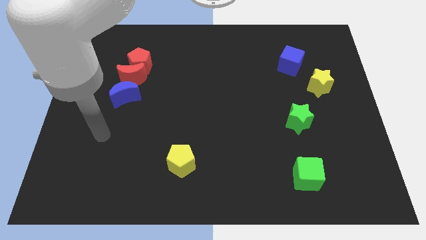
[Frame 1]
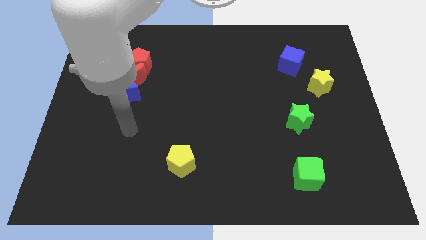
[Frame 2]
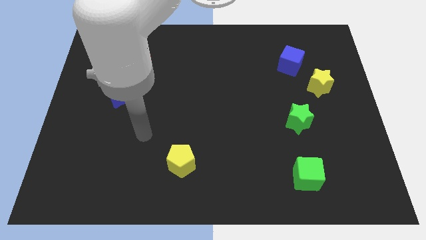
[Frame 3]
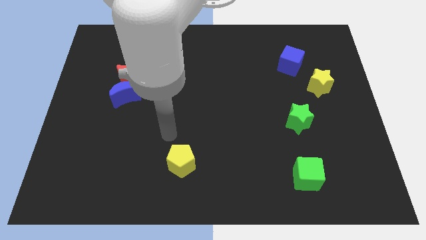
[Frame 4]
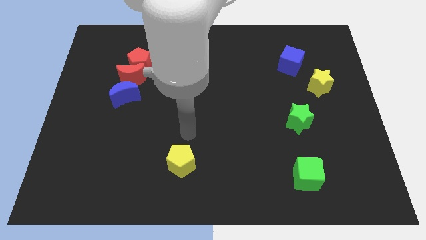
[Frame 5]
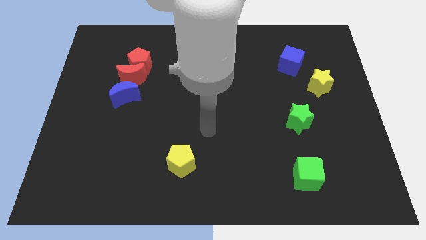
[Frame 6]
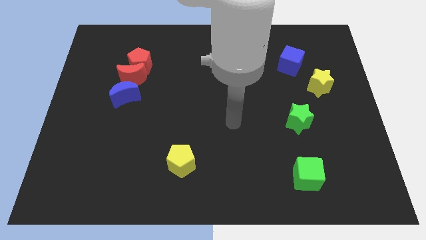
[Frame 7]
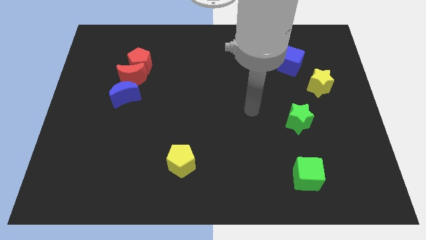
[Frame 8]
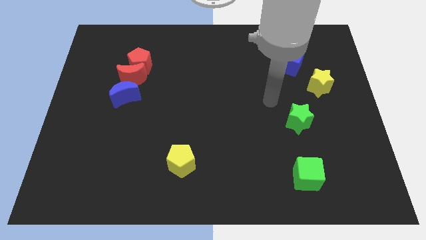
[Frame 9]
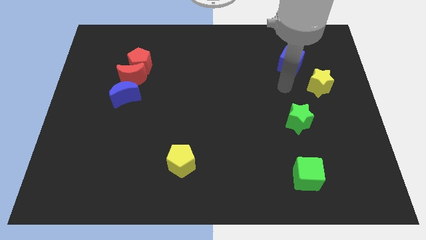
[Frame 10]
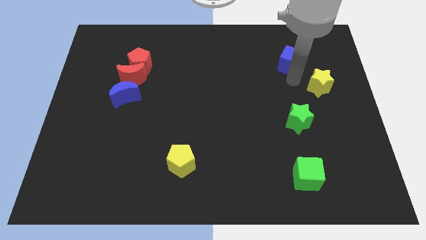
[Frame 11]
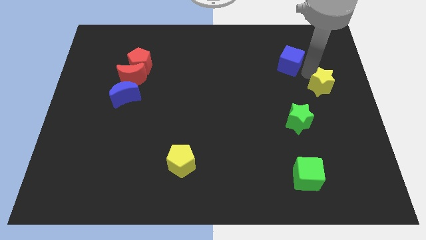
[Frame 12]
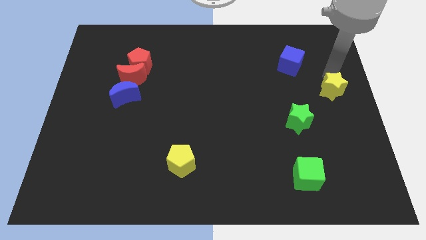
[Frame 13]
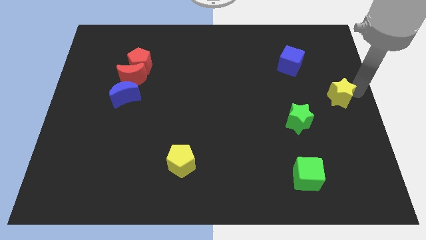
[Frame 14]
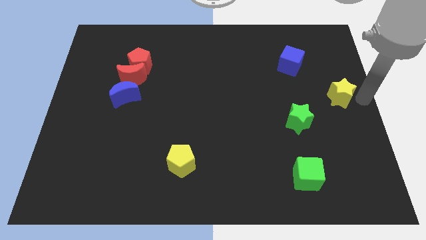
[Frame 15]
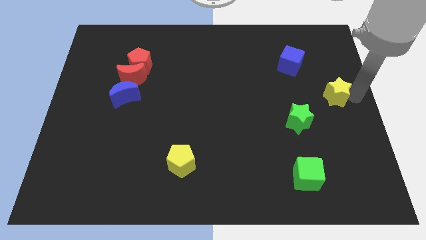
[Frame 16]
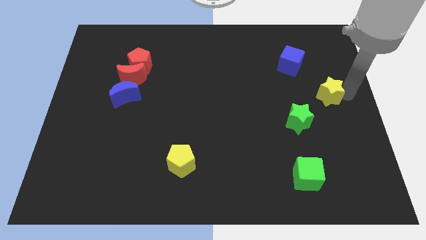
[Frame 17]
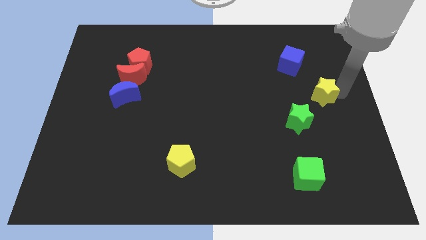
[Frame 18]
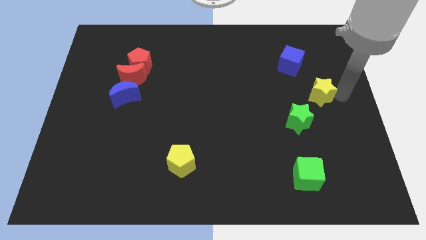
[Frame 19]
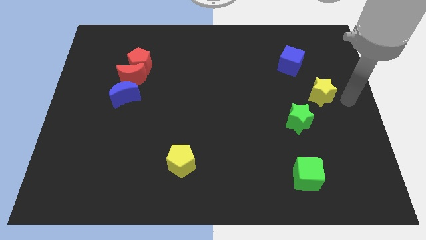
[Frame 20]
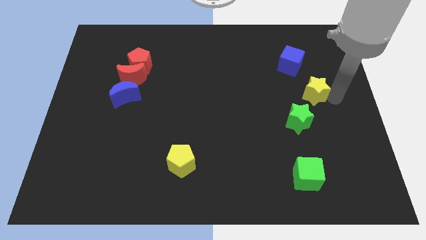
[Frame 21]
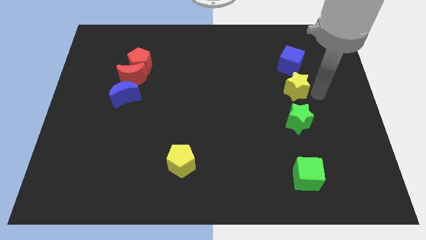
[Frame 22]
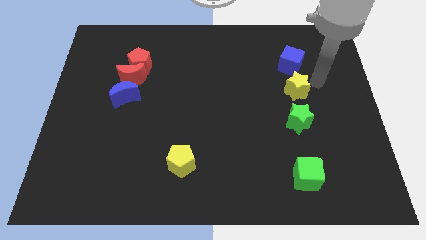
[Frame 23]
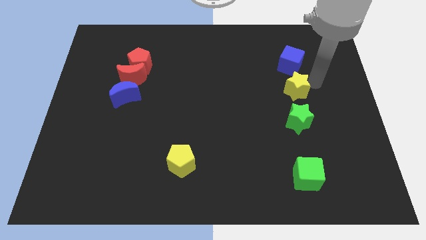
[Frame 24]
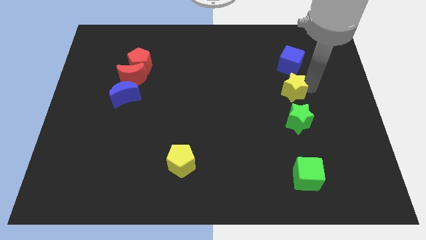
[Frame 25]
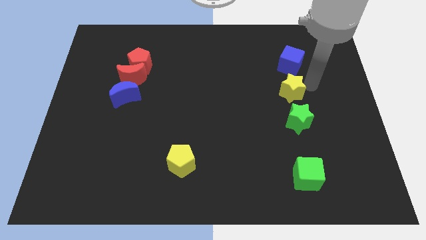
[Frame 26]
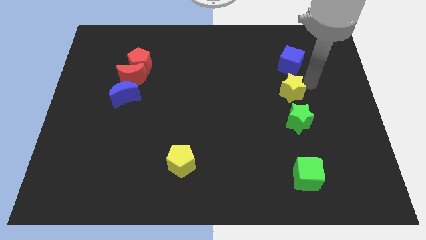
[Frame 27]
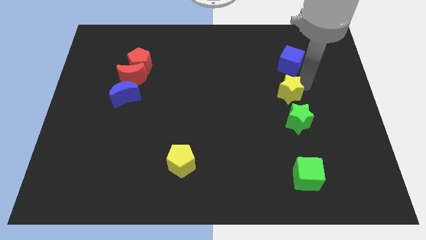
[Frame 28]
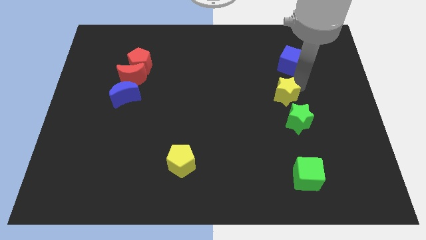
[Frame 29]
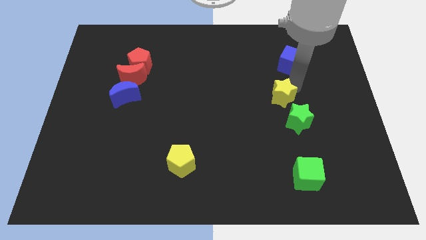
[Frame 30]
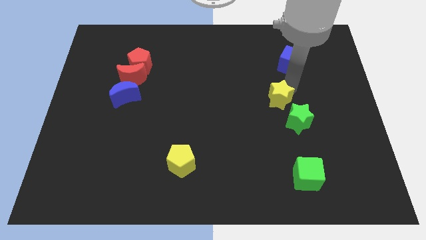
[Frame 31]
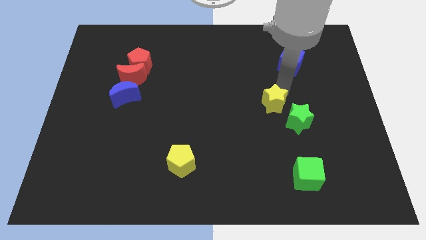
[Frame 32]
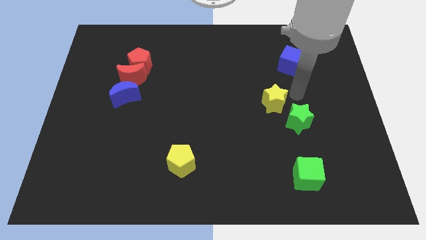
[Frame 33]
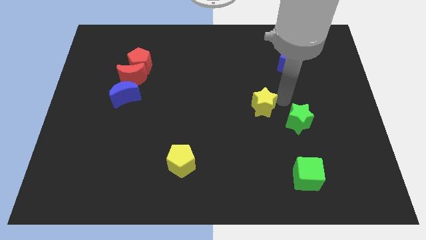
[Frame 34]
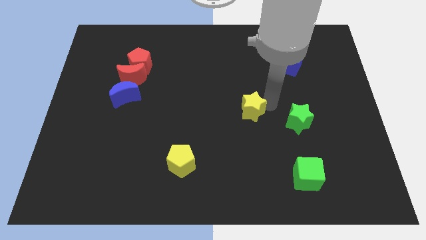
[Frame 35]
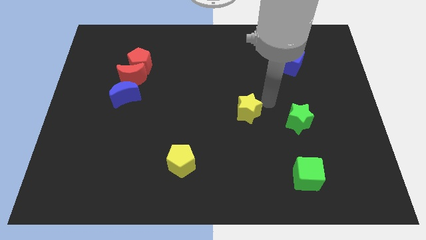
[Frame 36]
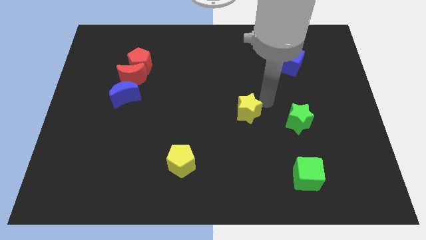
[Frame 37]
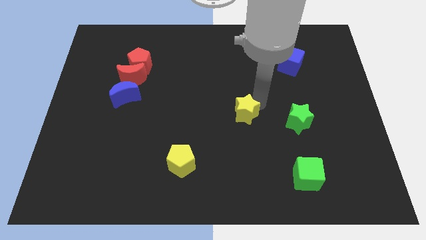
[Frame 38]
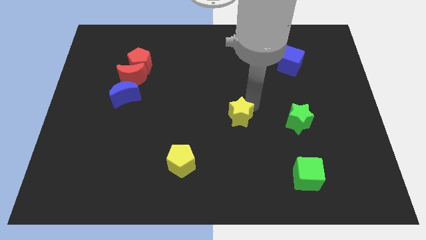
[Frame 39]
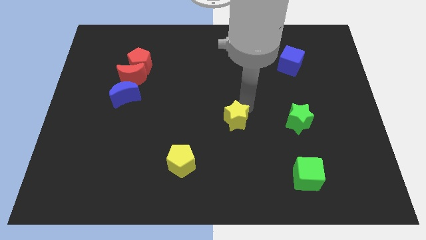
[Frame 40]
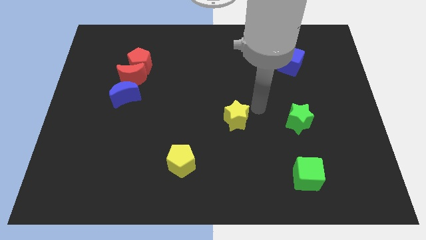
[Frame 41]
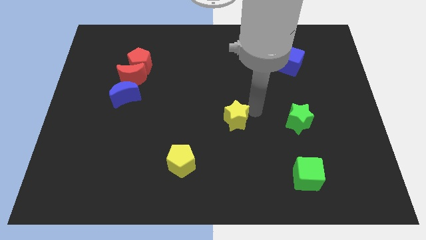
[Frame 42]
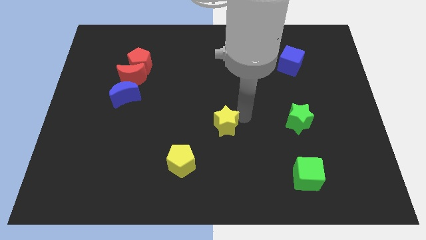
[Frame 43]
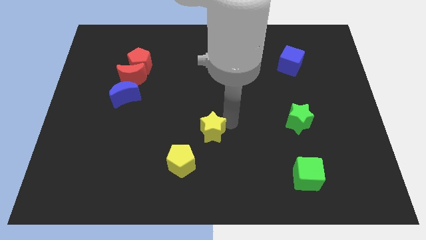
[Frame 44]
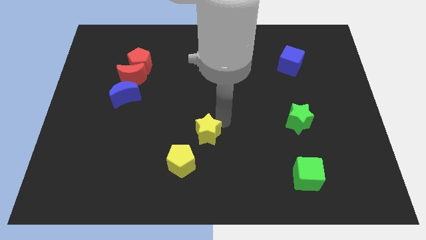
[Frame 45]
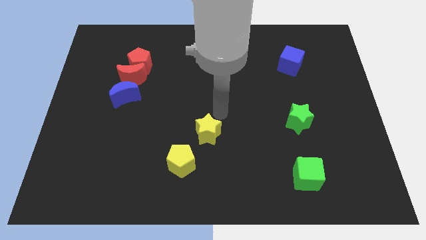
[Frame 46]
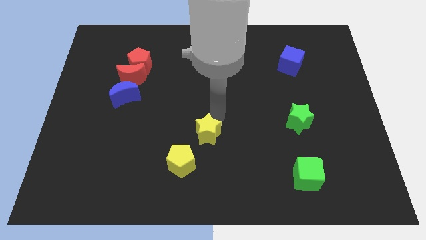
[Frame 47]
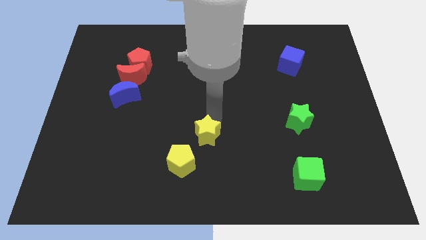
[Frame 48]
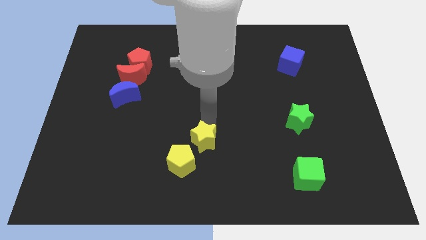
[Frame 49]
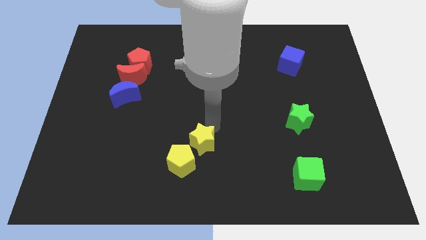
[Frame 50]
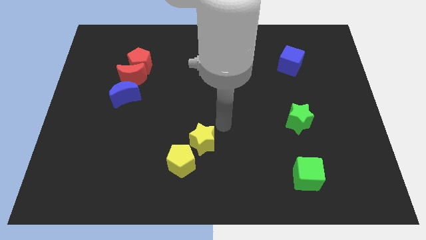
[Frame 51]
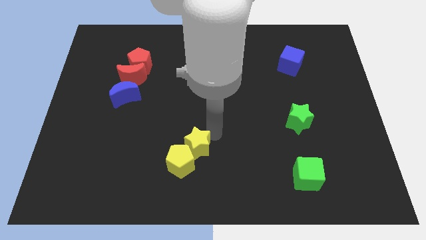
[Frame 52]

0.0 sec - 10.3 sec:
push the yellow star to the yellow pentagon
